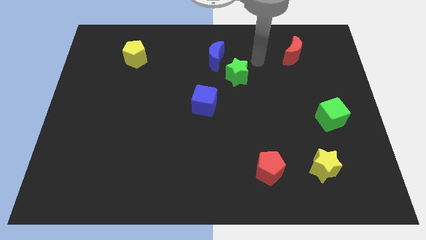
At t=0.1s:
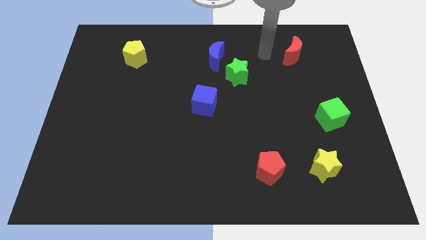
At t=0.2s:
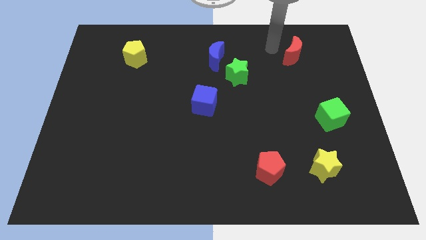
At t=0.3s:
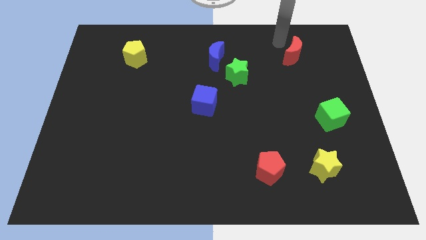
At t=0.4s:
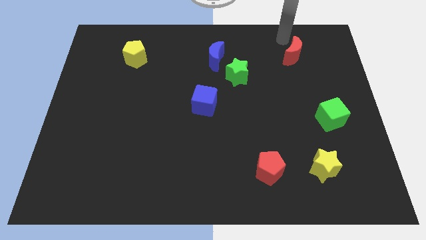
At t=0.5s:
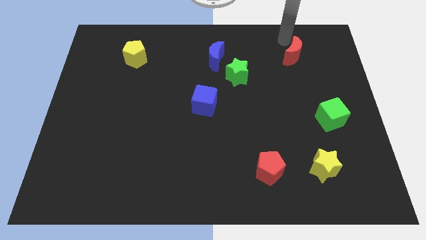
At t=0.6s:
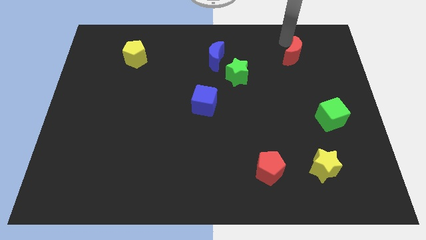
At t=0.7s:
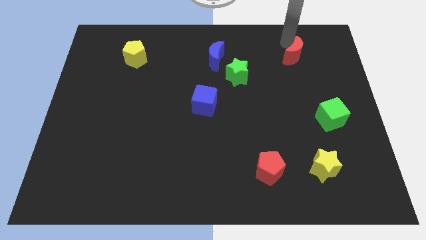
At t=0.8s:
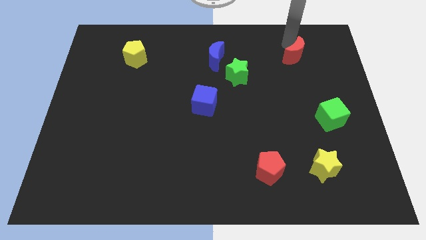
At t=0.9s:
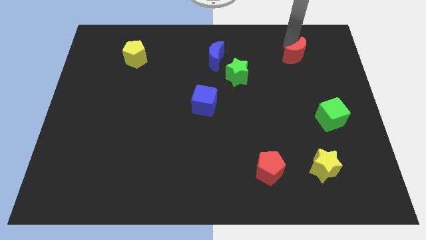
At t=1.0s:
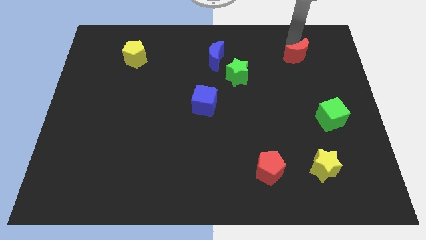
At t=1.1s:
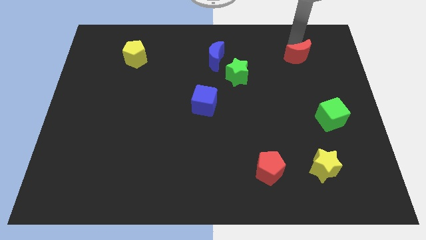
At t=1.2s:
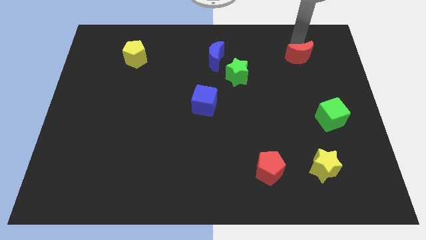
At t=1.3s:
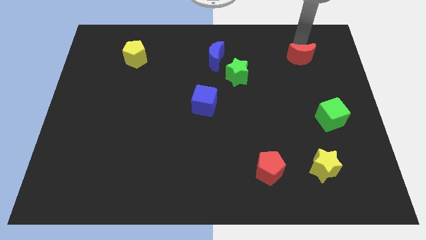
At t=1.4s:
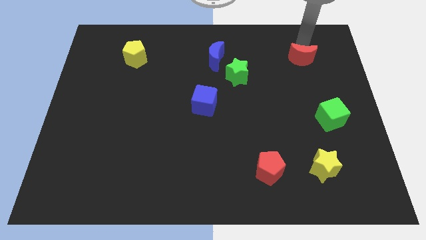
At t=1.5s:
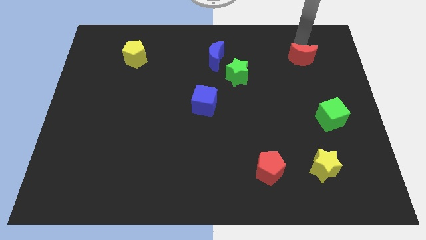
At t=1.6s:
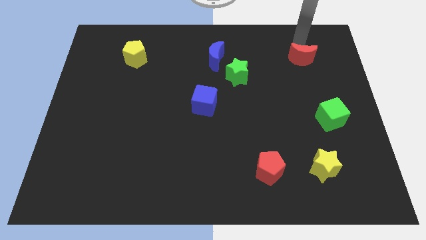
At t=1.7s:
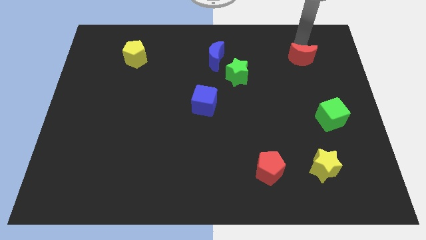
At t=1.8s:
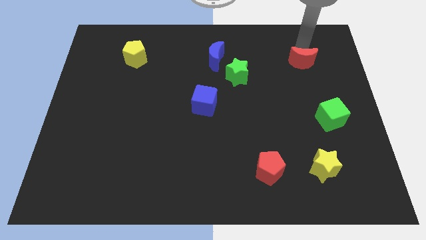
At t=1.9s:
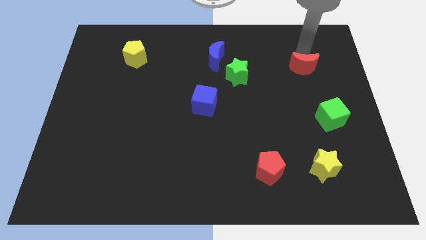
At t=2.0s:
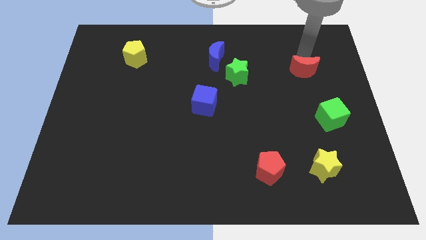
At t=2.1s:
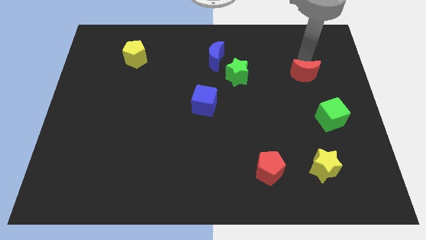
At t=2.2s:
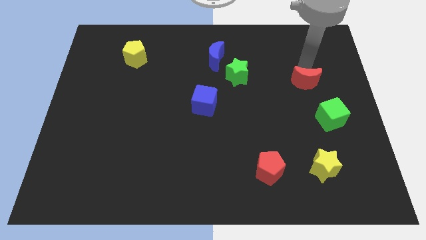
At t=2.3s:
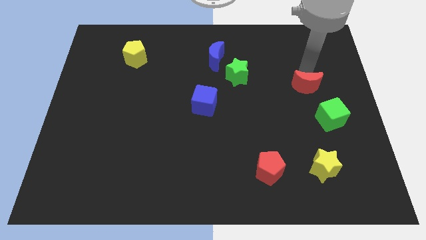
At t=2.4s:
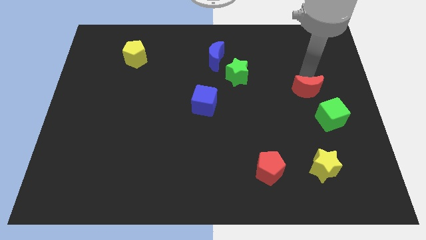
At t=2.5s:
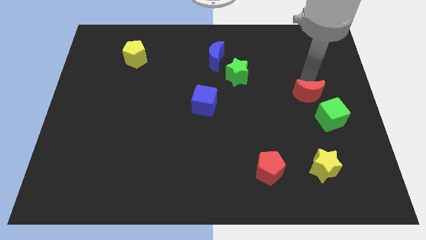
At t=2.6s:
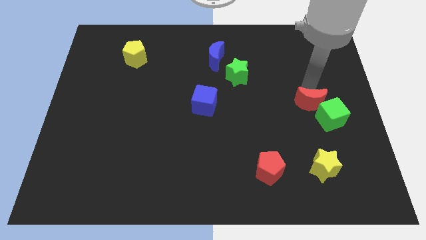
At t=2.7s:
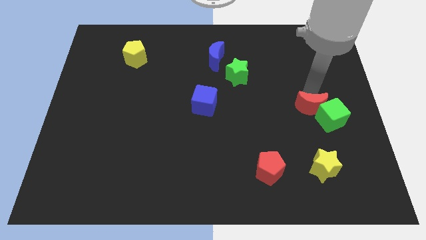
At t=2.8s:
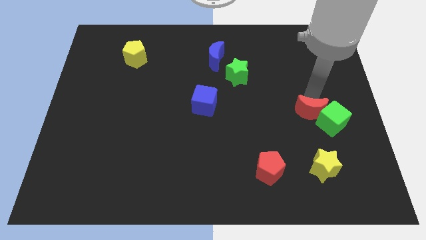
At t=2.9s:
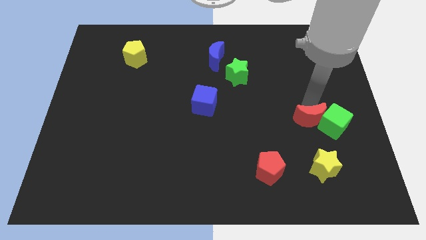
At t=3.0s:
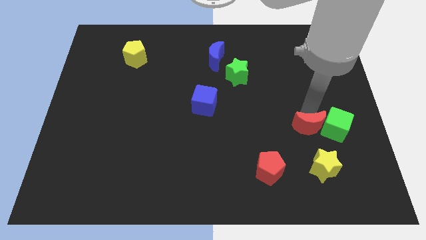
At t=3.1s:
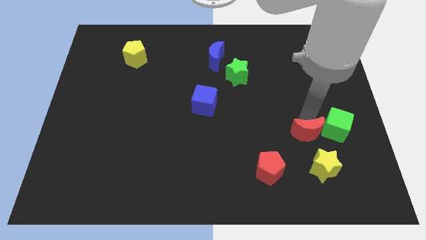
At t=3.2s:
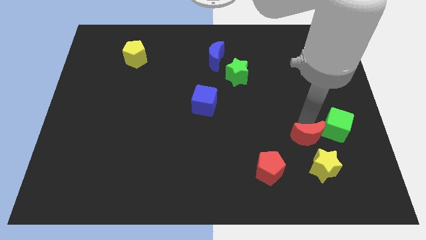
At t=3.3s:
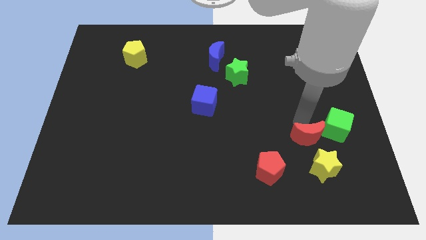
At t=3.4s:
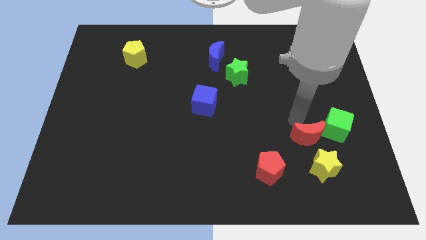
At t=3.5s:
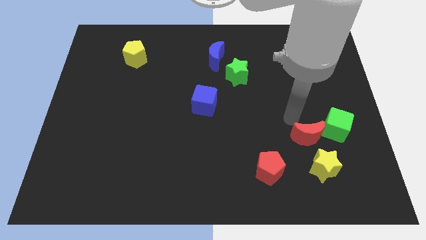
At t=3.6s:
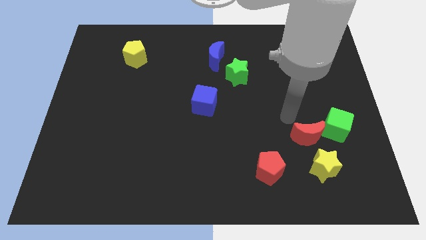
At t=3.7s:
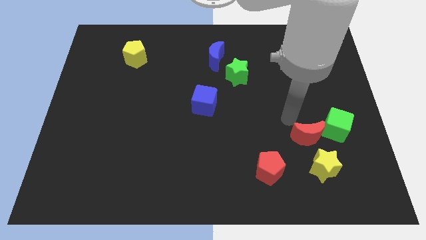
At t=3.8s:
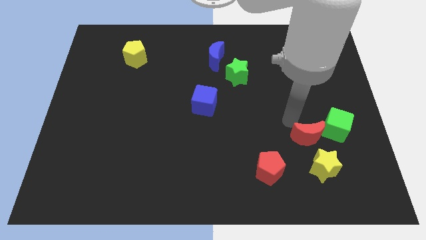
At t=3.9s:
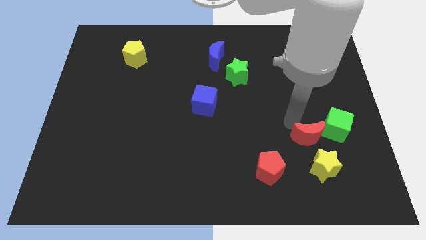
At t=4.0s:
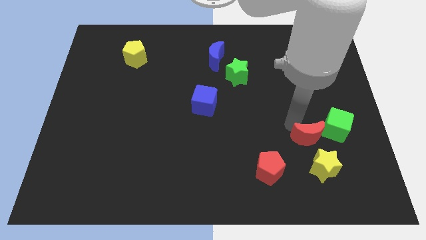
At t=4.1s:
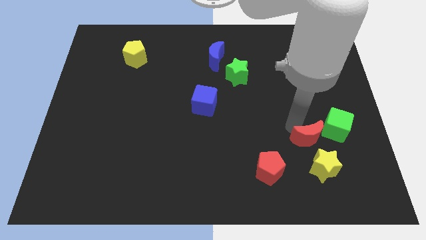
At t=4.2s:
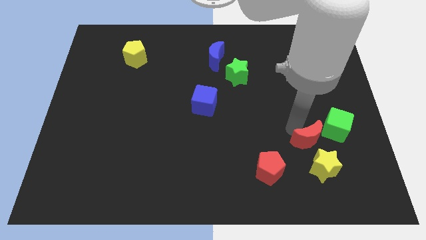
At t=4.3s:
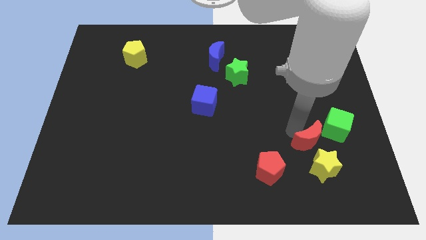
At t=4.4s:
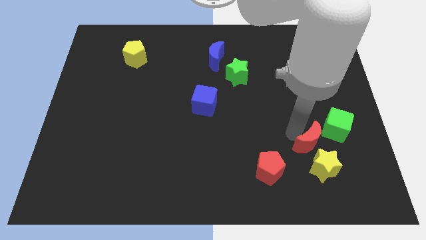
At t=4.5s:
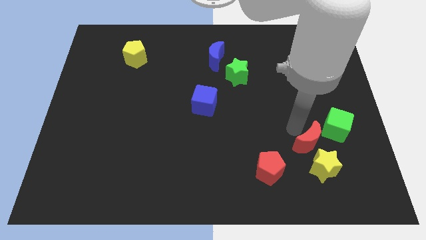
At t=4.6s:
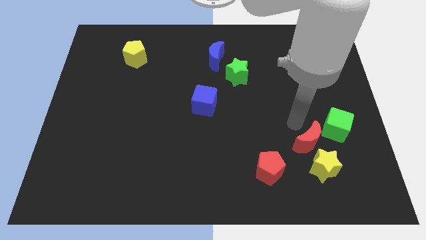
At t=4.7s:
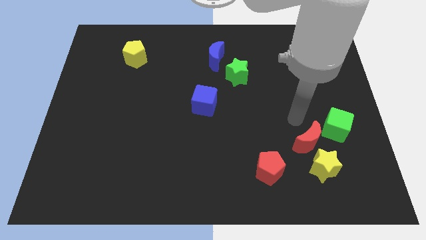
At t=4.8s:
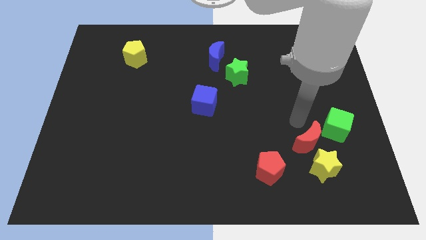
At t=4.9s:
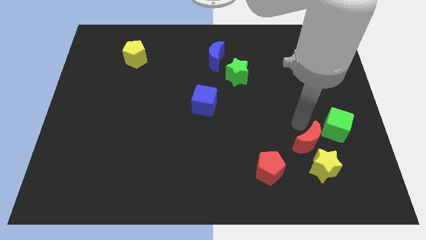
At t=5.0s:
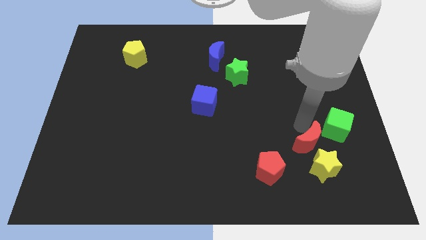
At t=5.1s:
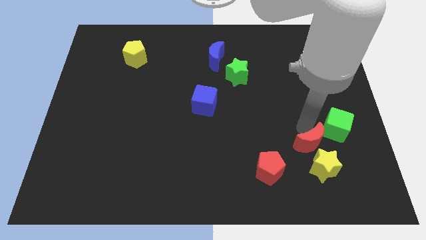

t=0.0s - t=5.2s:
push the red moon next to the yellow star

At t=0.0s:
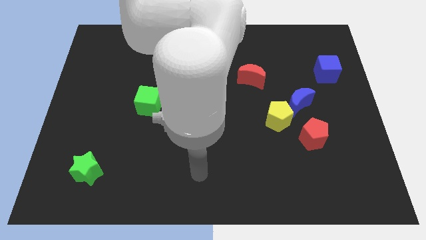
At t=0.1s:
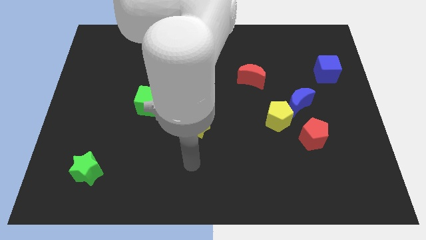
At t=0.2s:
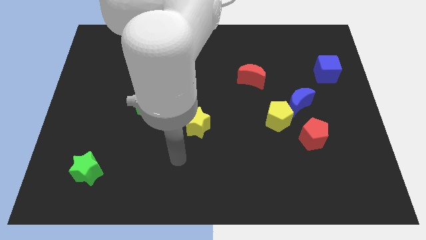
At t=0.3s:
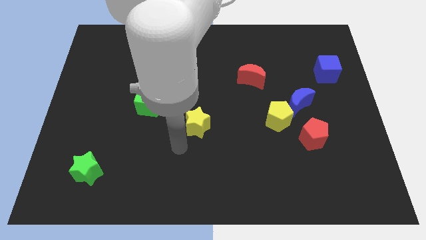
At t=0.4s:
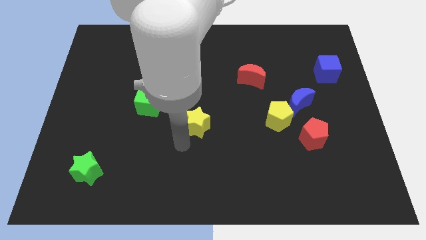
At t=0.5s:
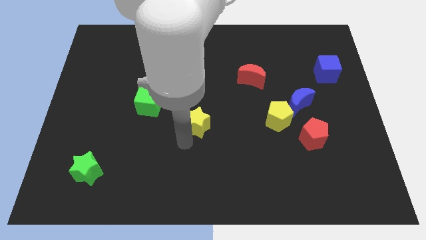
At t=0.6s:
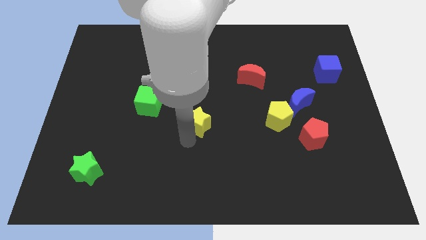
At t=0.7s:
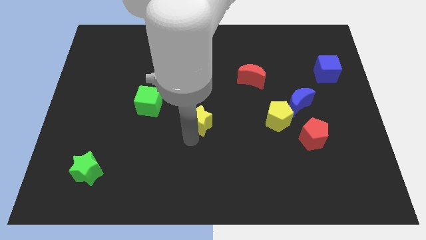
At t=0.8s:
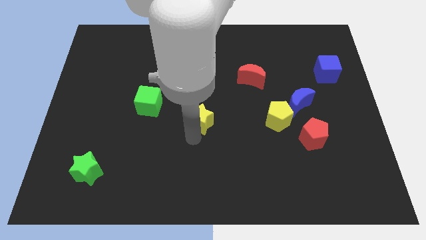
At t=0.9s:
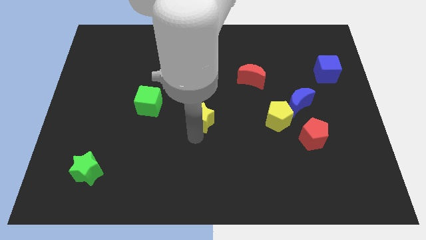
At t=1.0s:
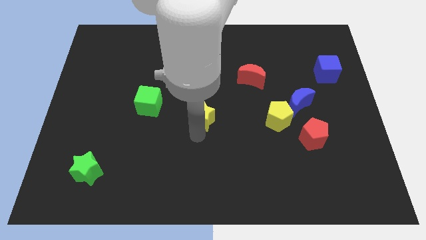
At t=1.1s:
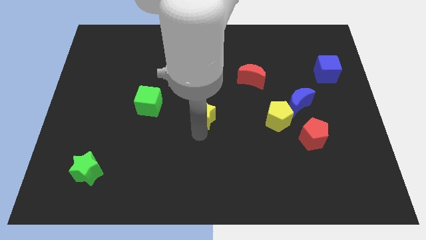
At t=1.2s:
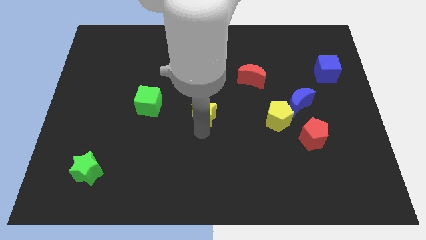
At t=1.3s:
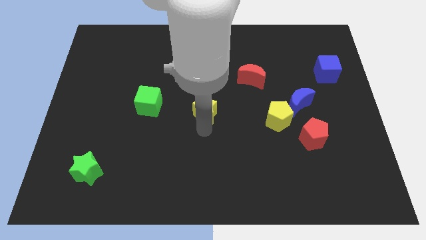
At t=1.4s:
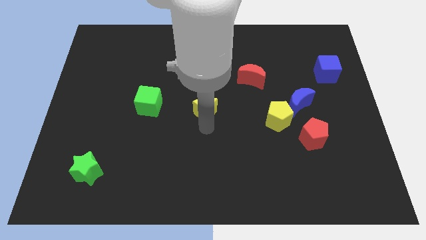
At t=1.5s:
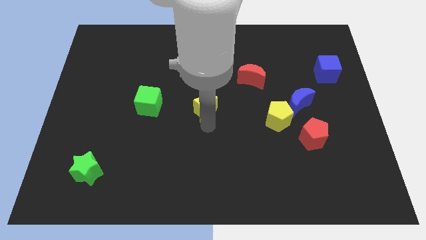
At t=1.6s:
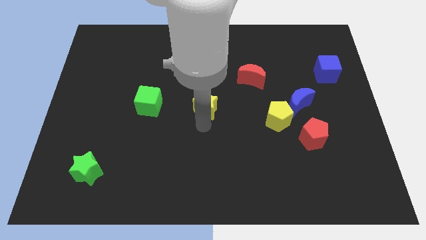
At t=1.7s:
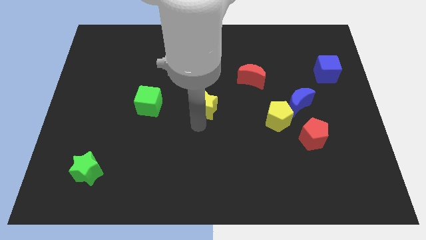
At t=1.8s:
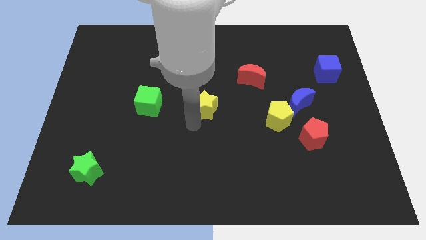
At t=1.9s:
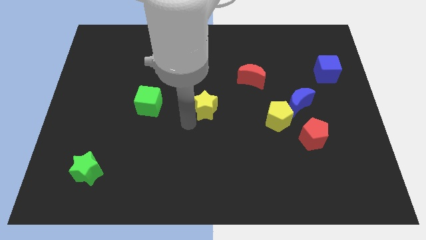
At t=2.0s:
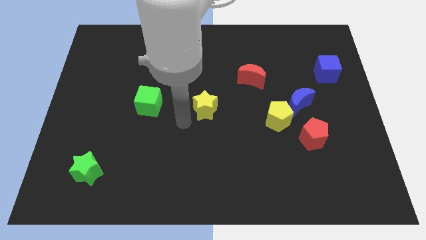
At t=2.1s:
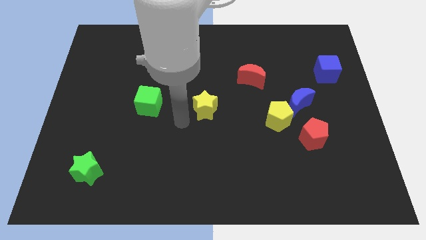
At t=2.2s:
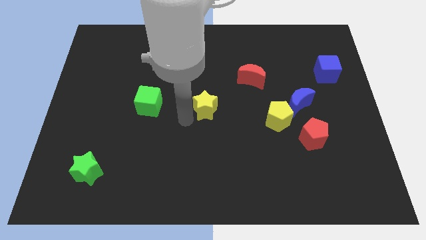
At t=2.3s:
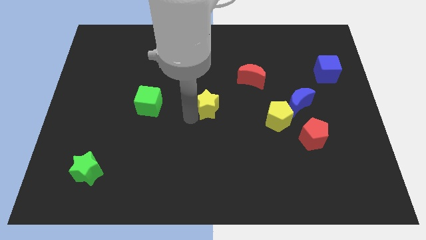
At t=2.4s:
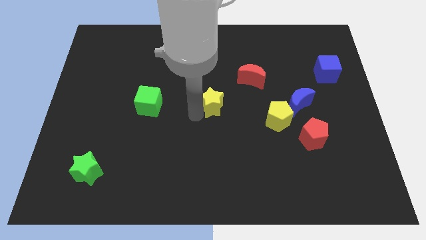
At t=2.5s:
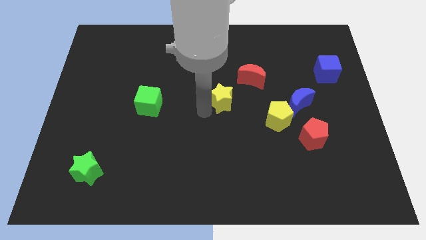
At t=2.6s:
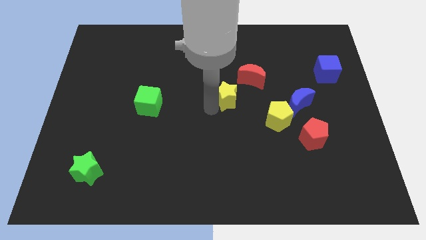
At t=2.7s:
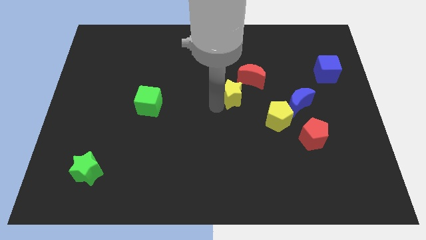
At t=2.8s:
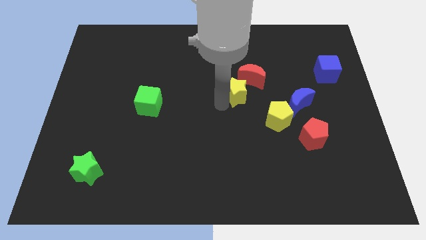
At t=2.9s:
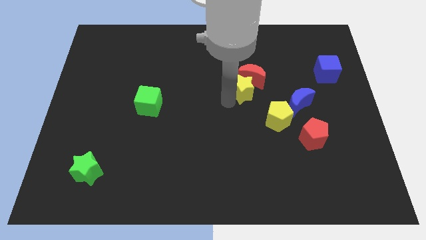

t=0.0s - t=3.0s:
put the yellow star close to the red moon
